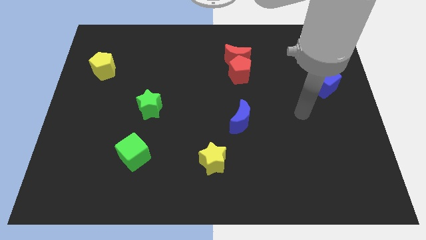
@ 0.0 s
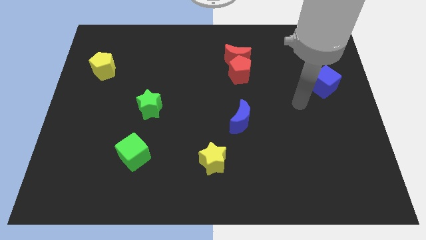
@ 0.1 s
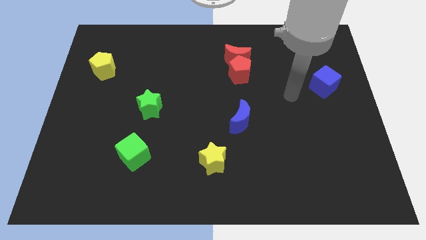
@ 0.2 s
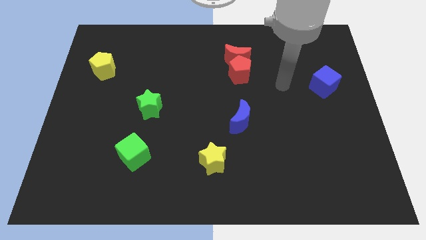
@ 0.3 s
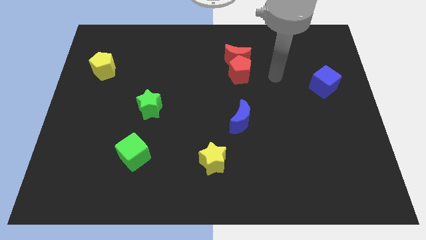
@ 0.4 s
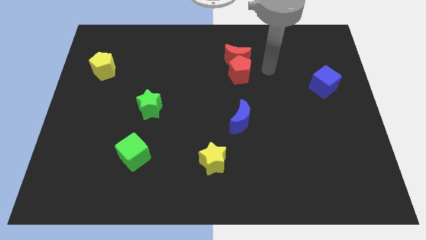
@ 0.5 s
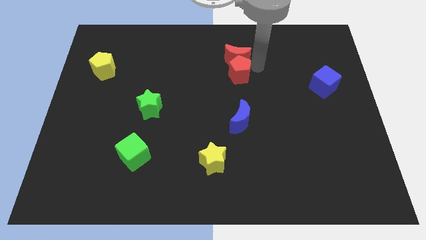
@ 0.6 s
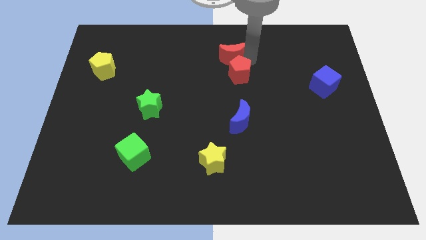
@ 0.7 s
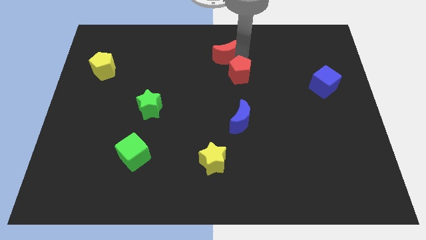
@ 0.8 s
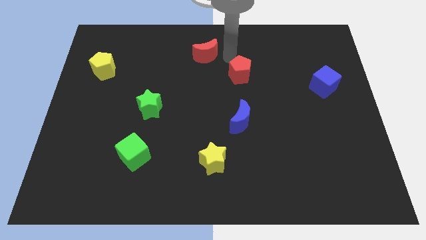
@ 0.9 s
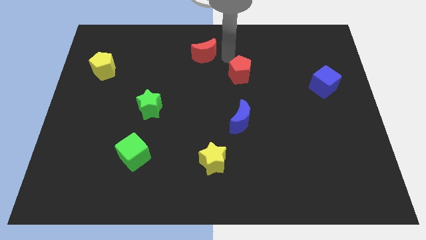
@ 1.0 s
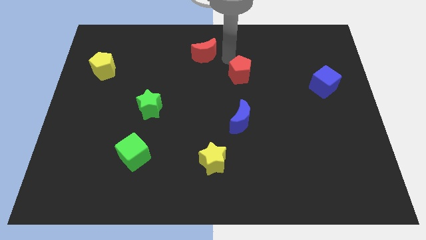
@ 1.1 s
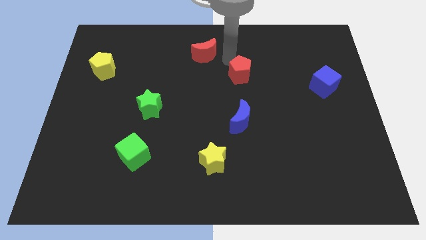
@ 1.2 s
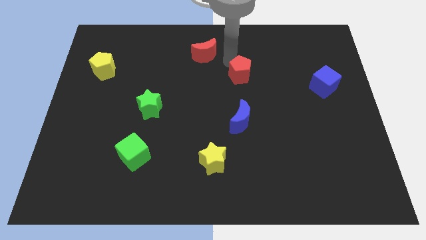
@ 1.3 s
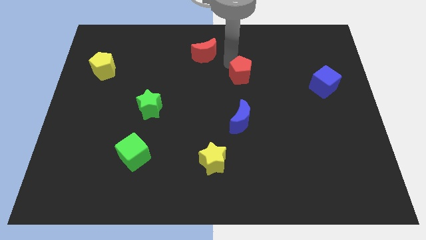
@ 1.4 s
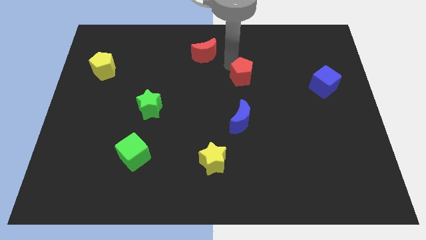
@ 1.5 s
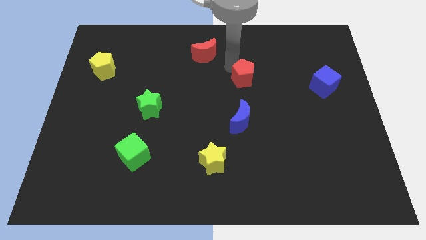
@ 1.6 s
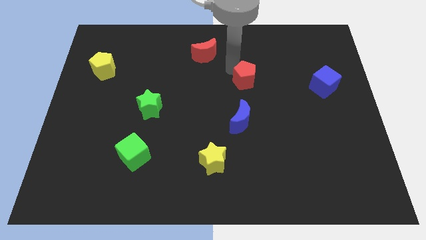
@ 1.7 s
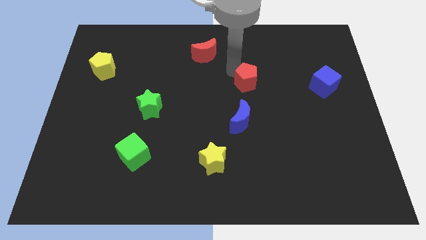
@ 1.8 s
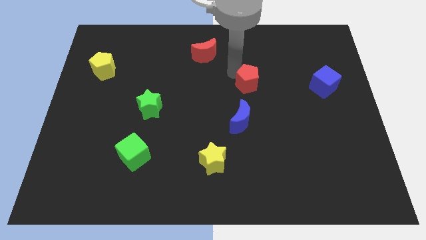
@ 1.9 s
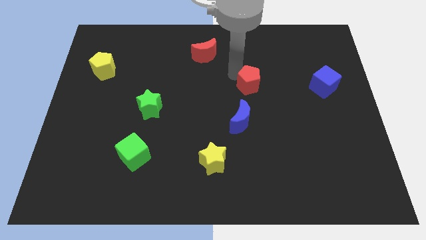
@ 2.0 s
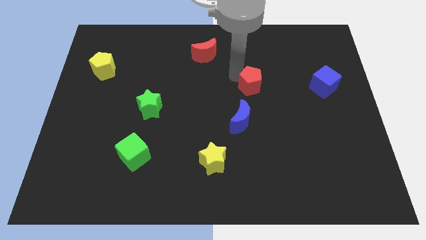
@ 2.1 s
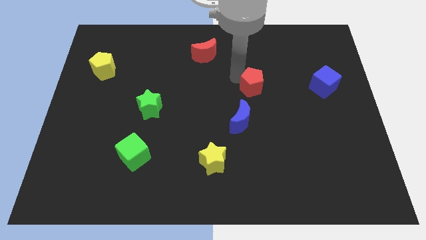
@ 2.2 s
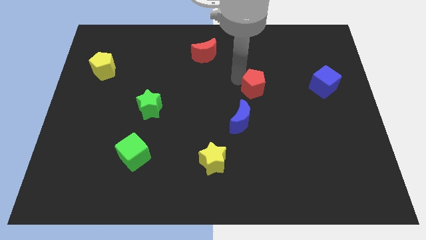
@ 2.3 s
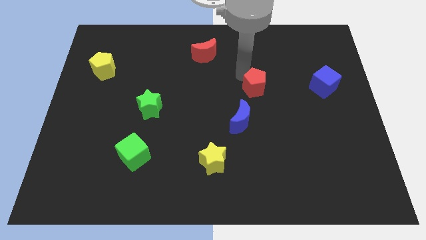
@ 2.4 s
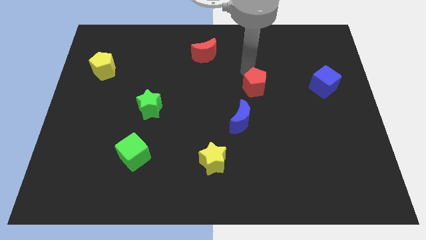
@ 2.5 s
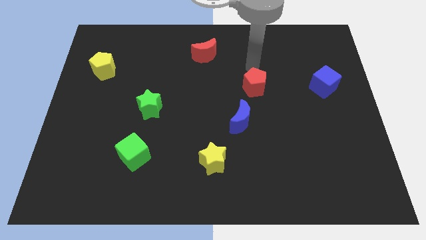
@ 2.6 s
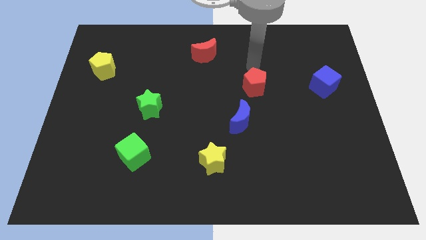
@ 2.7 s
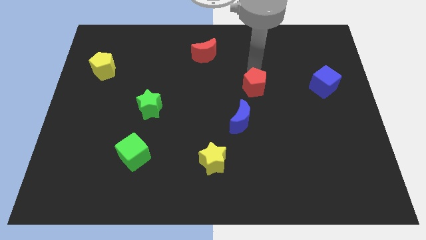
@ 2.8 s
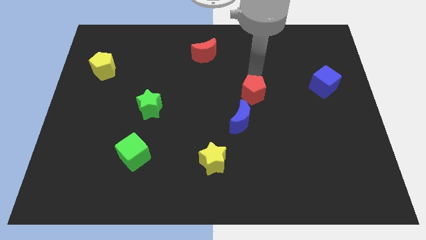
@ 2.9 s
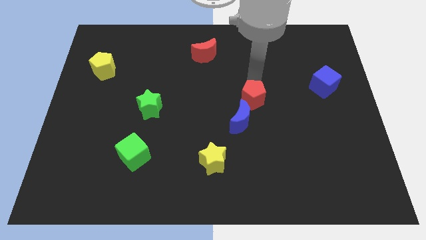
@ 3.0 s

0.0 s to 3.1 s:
move the red pentagon downwards a little

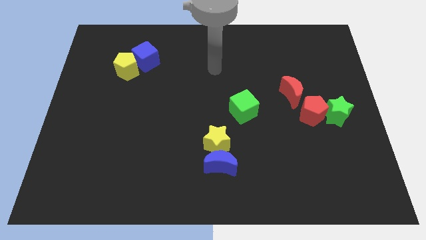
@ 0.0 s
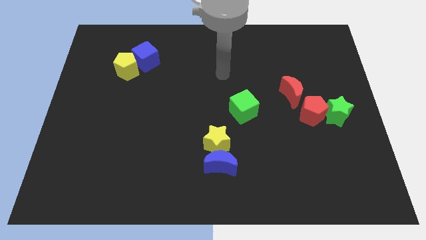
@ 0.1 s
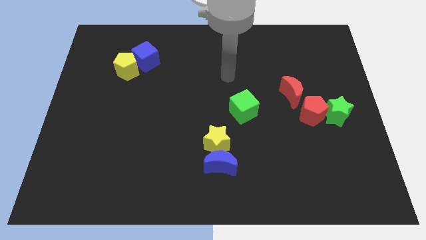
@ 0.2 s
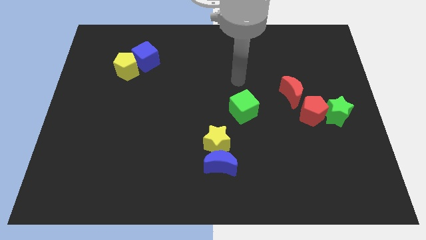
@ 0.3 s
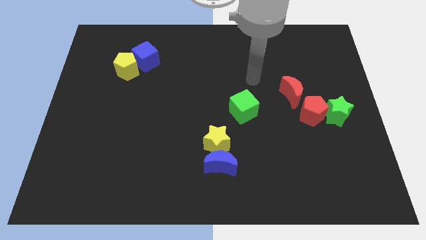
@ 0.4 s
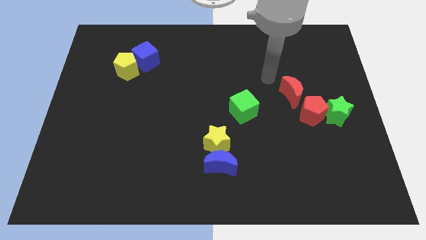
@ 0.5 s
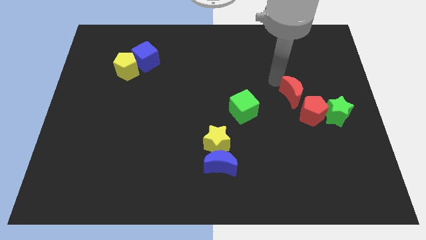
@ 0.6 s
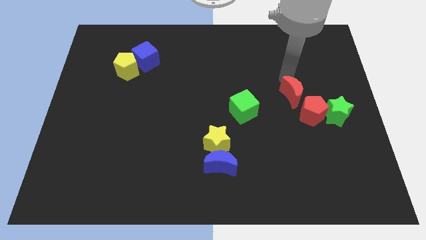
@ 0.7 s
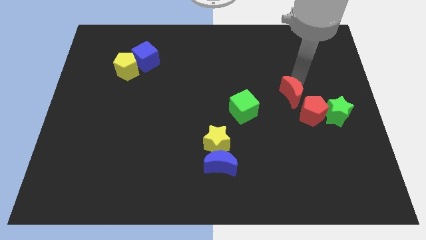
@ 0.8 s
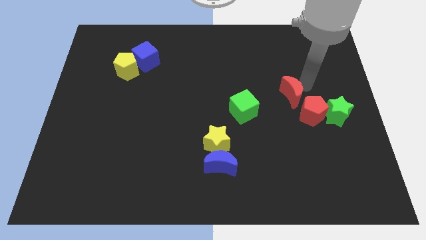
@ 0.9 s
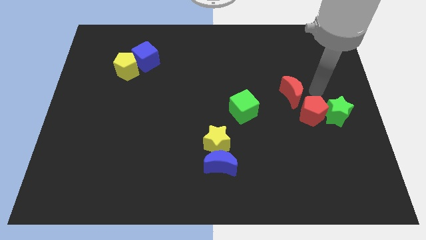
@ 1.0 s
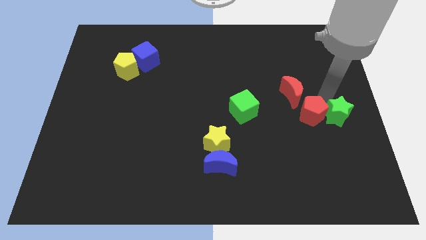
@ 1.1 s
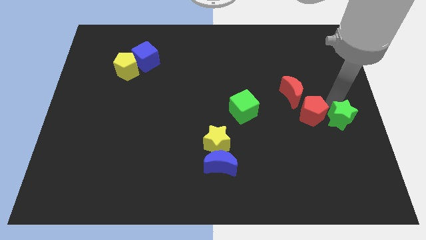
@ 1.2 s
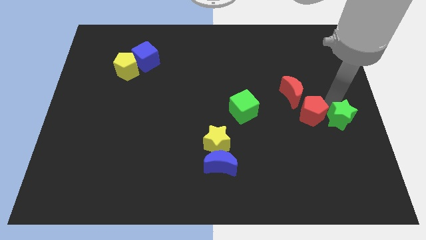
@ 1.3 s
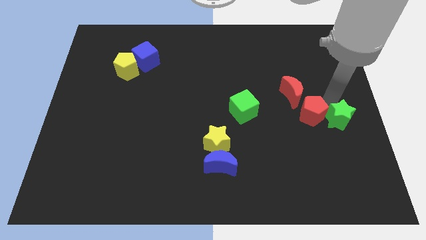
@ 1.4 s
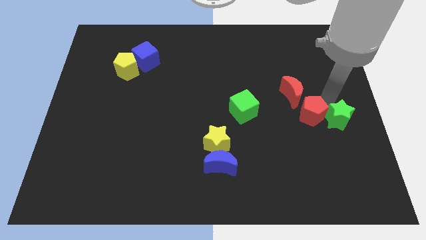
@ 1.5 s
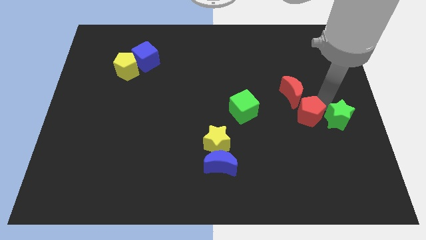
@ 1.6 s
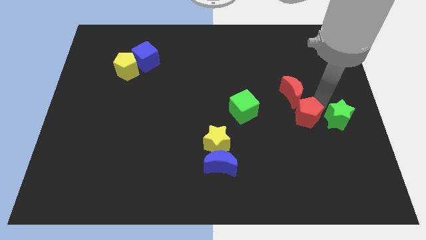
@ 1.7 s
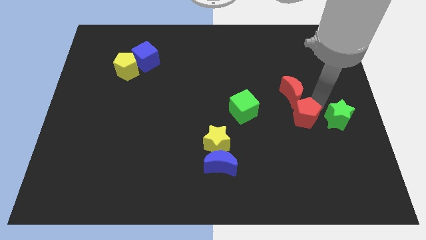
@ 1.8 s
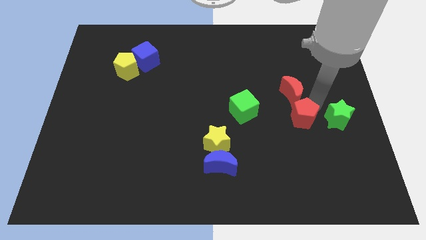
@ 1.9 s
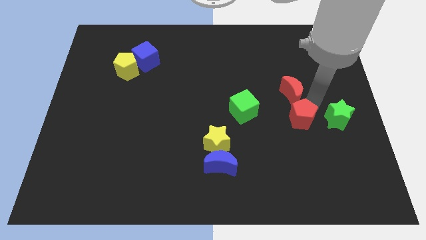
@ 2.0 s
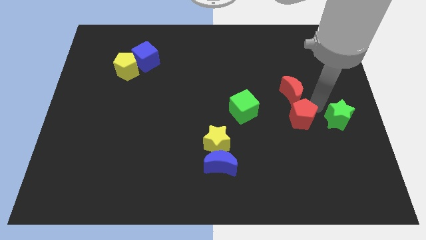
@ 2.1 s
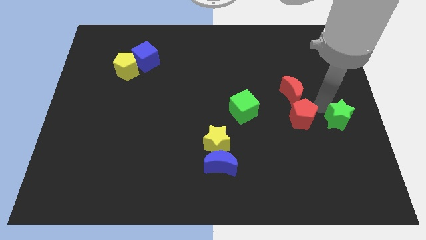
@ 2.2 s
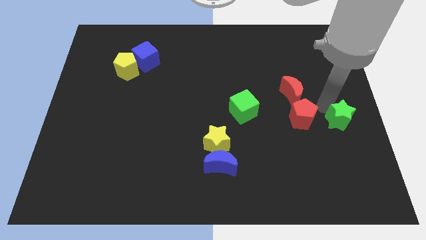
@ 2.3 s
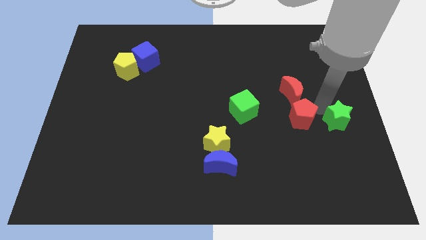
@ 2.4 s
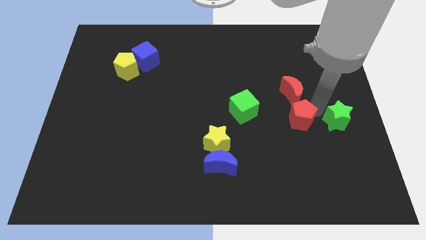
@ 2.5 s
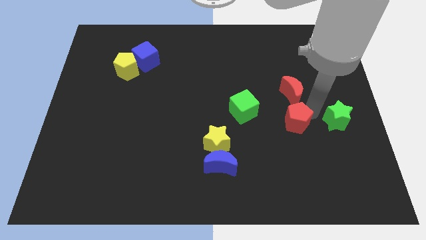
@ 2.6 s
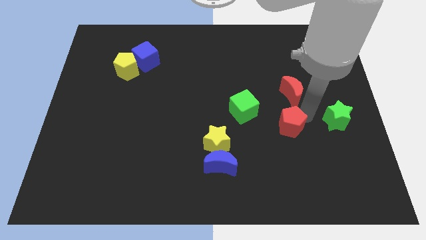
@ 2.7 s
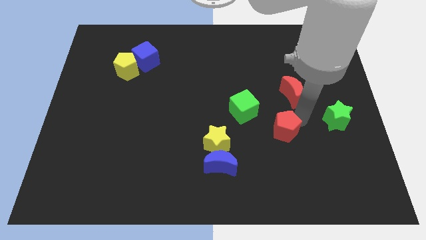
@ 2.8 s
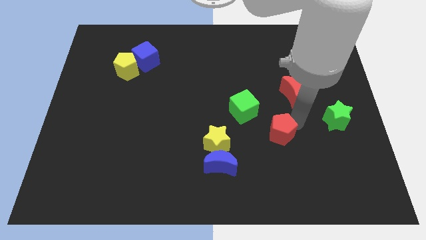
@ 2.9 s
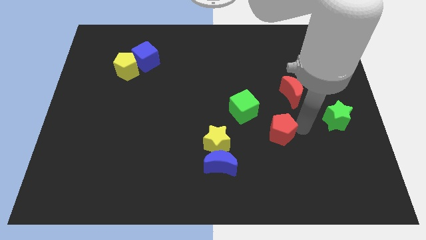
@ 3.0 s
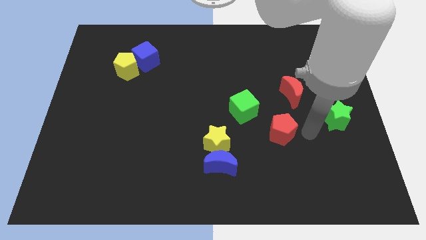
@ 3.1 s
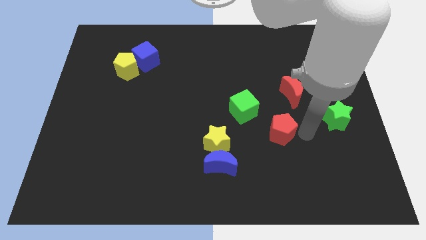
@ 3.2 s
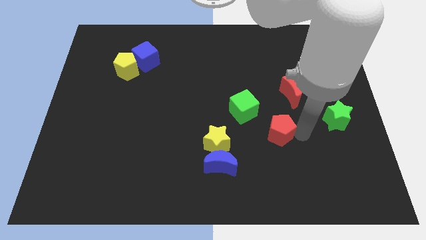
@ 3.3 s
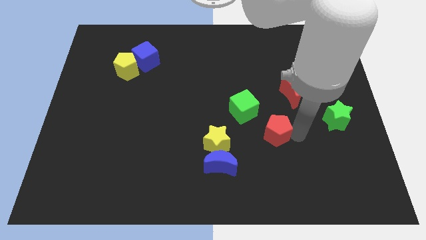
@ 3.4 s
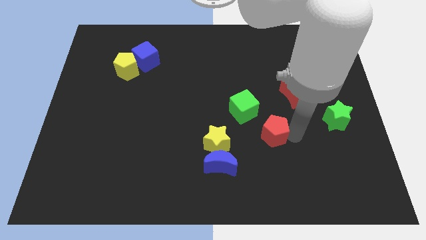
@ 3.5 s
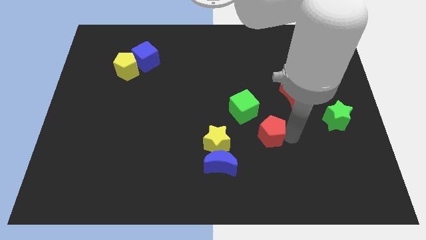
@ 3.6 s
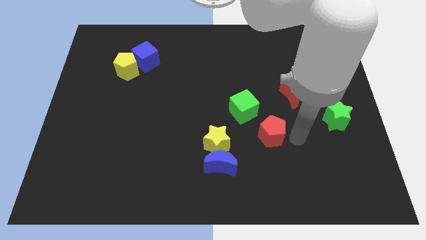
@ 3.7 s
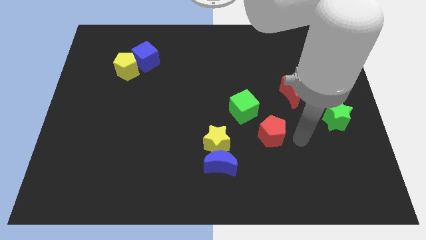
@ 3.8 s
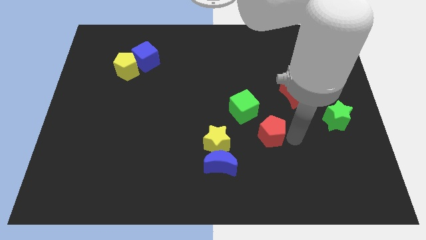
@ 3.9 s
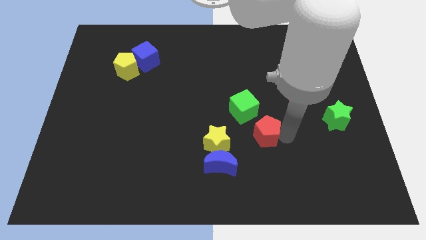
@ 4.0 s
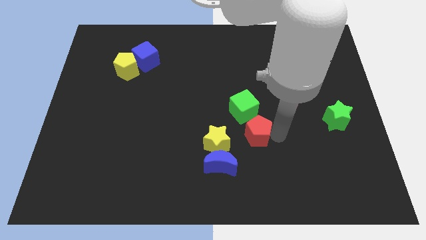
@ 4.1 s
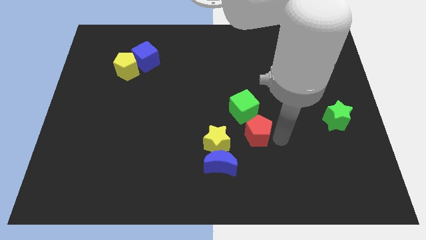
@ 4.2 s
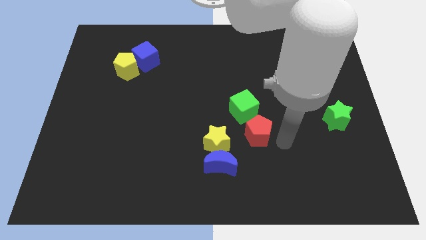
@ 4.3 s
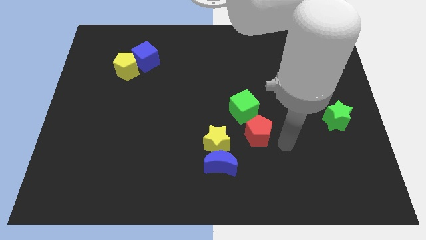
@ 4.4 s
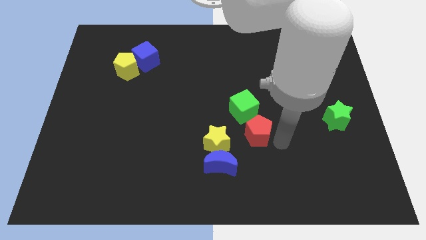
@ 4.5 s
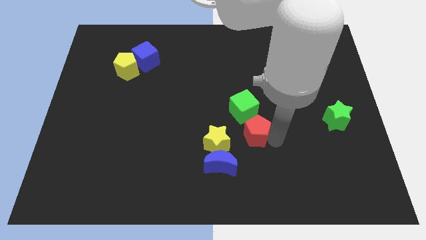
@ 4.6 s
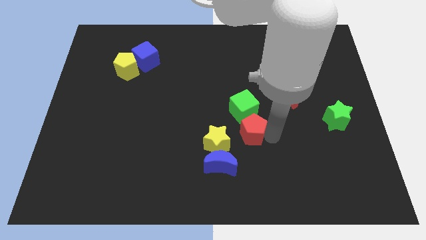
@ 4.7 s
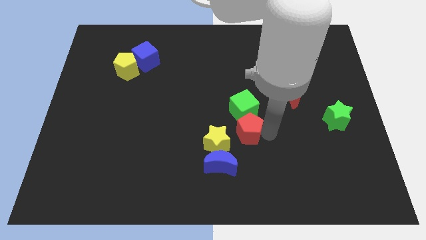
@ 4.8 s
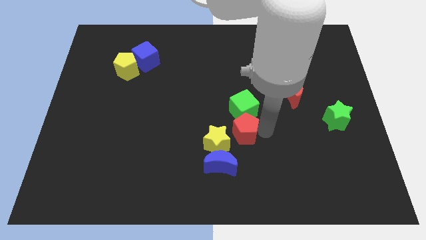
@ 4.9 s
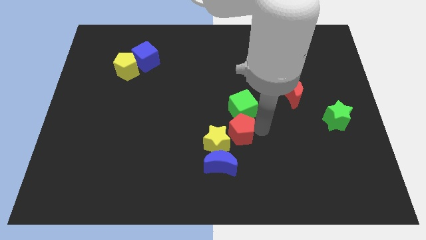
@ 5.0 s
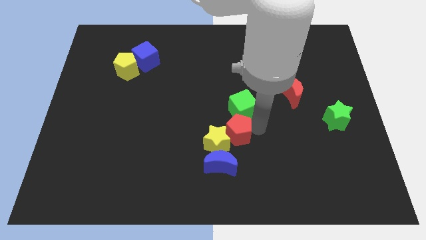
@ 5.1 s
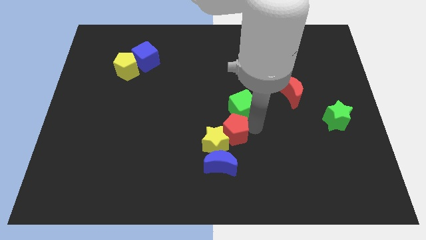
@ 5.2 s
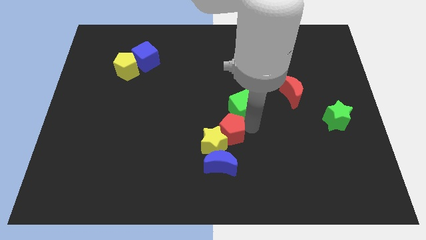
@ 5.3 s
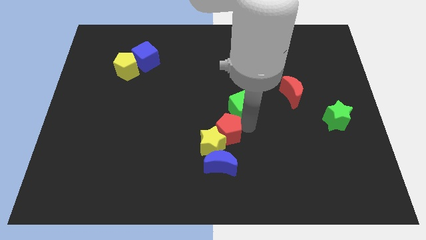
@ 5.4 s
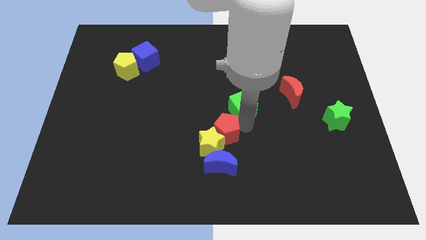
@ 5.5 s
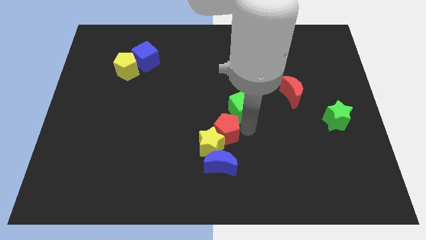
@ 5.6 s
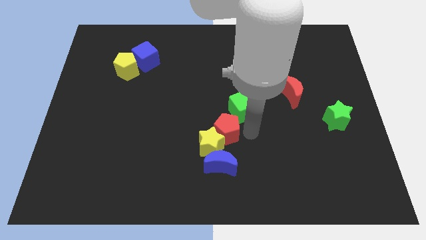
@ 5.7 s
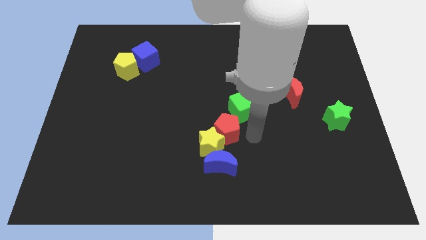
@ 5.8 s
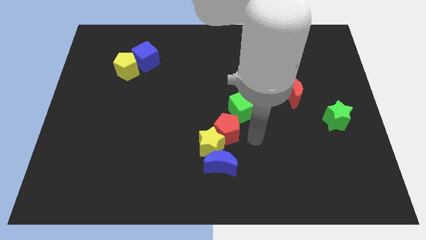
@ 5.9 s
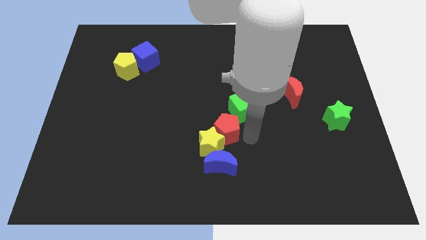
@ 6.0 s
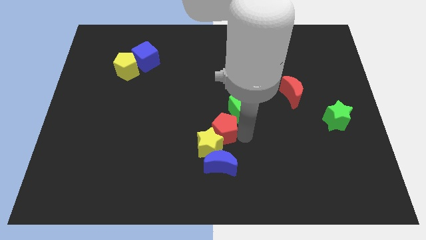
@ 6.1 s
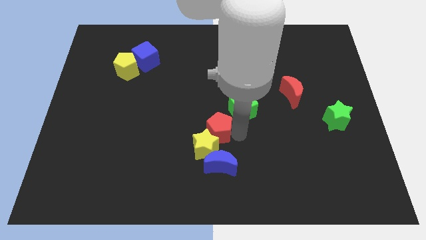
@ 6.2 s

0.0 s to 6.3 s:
slide the red pentagon left
